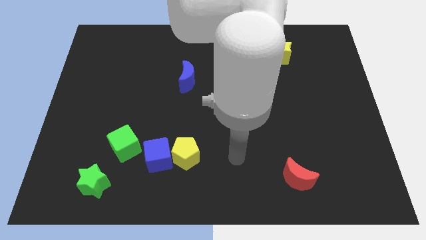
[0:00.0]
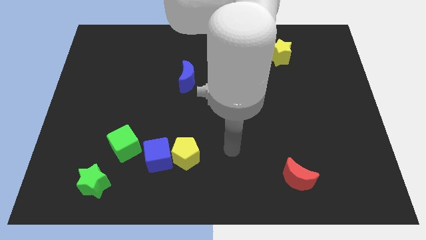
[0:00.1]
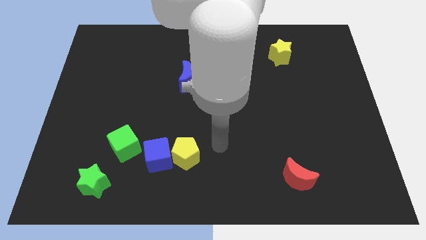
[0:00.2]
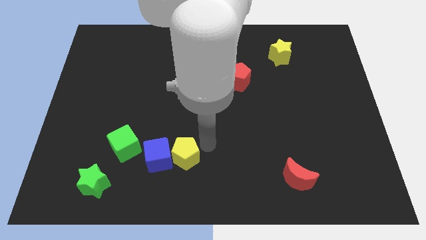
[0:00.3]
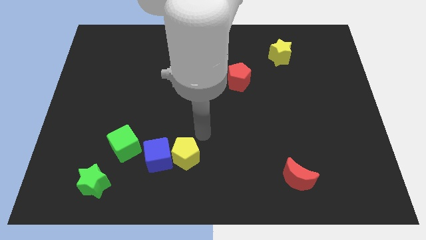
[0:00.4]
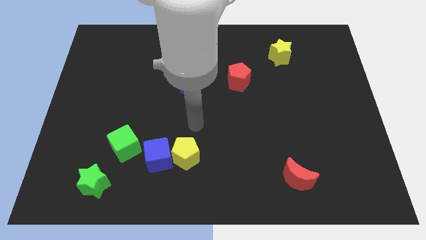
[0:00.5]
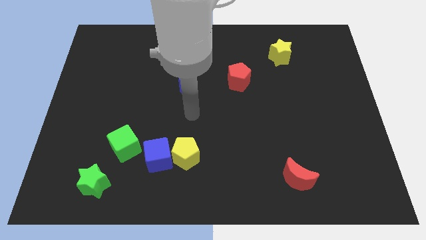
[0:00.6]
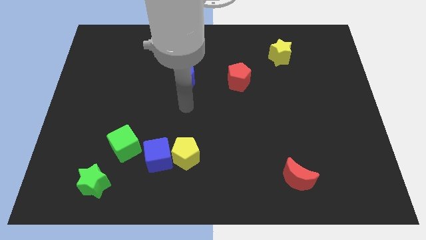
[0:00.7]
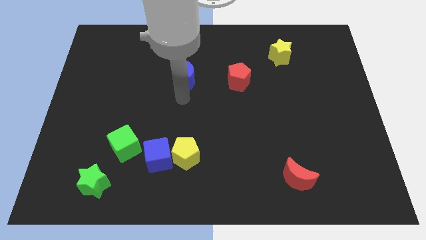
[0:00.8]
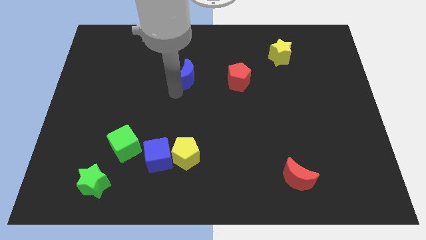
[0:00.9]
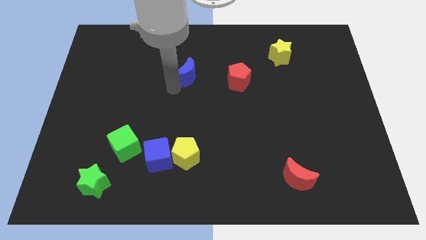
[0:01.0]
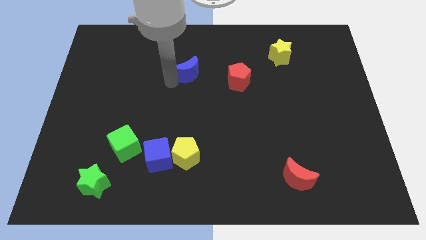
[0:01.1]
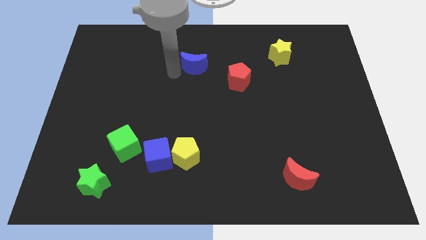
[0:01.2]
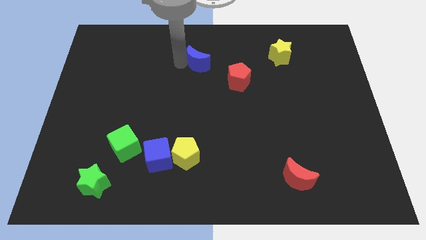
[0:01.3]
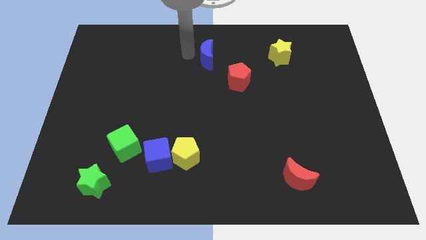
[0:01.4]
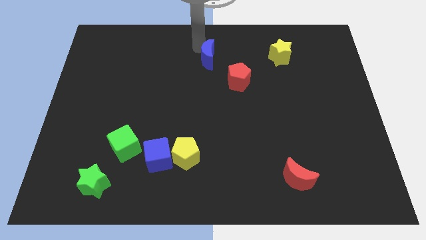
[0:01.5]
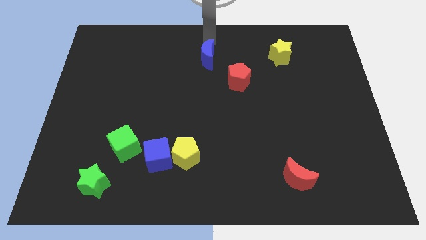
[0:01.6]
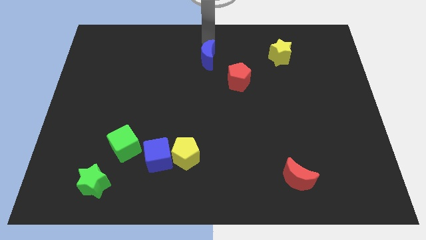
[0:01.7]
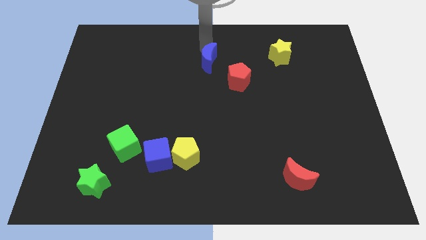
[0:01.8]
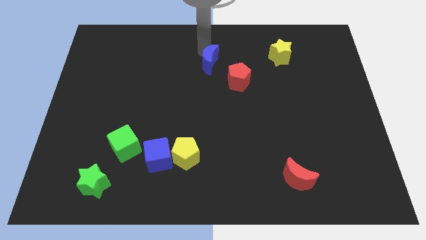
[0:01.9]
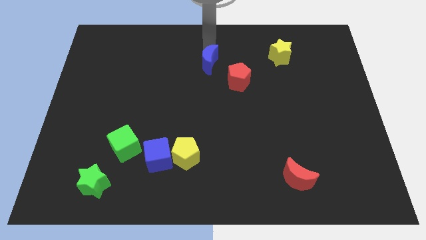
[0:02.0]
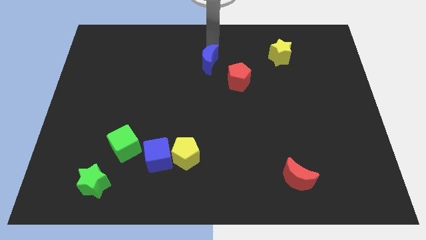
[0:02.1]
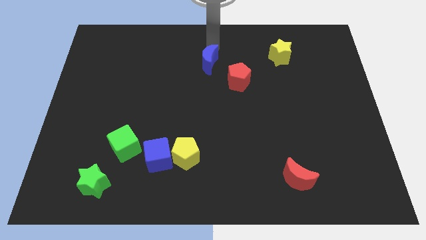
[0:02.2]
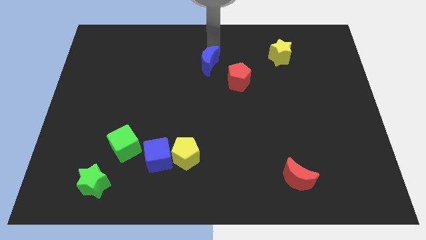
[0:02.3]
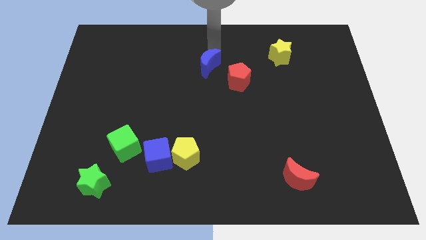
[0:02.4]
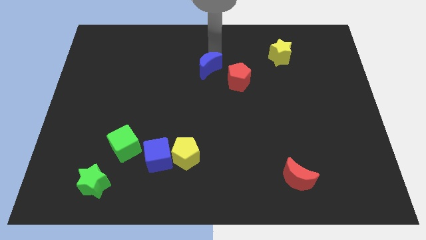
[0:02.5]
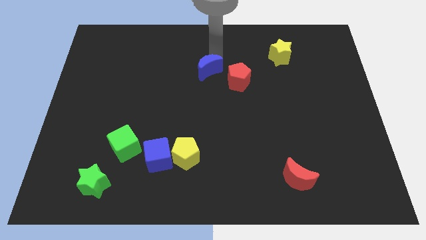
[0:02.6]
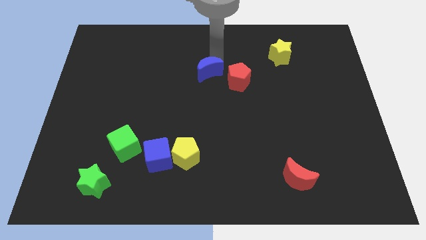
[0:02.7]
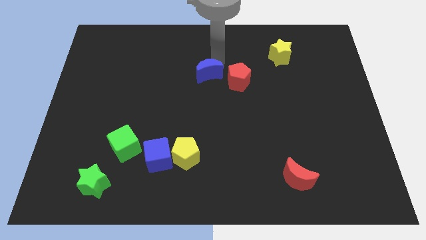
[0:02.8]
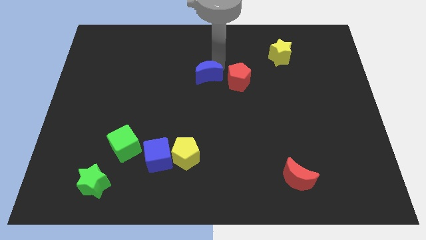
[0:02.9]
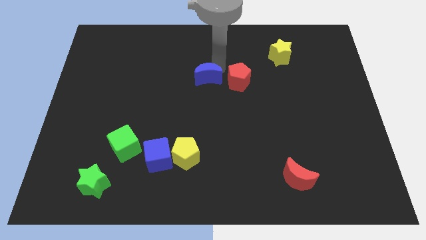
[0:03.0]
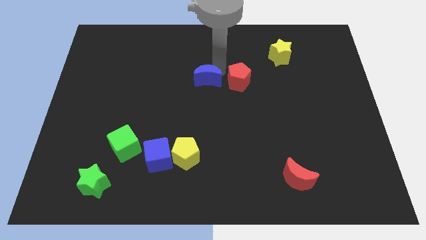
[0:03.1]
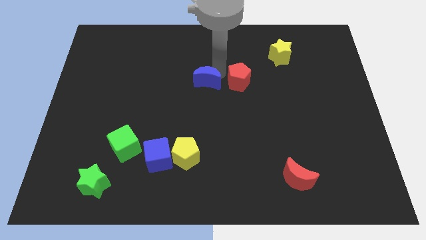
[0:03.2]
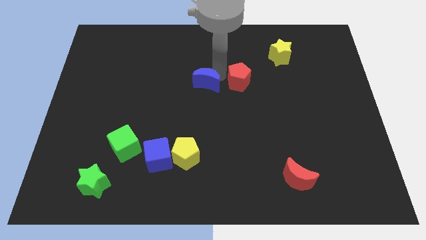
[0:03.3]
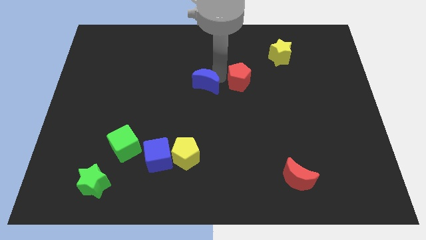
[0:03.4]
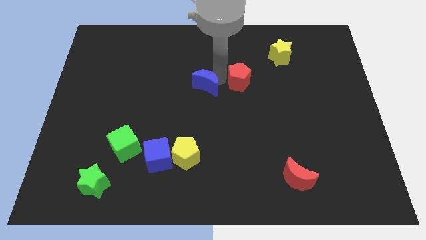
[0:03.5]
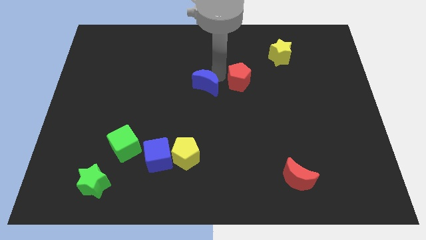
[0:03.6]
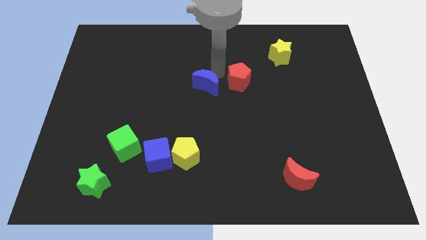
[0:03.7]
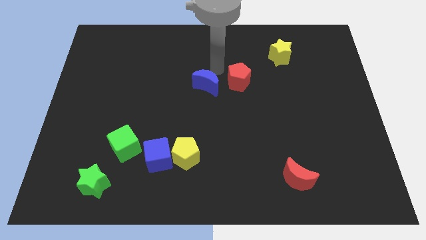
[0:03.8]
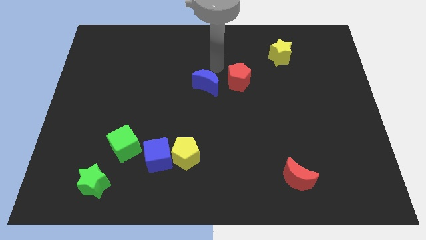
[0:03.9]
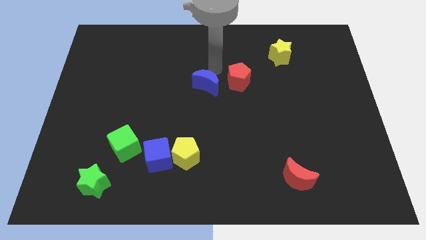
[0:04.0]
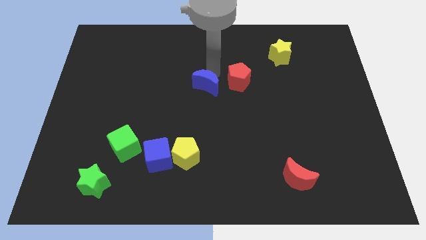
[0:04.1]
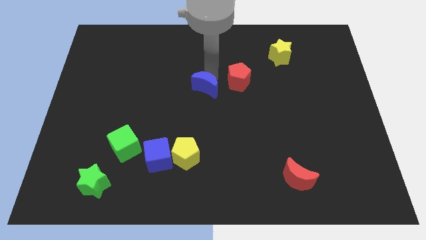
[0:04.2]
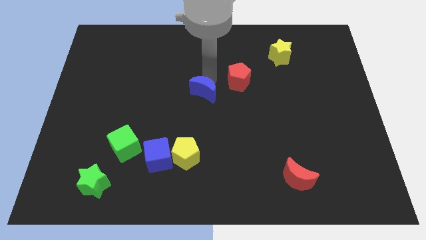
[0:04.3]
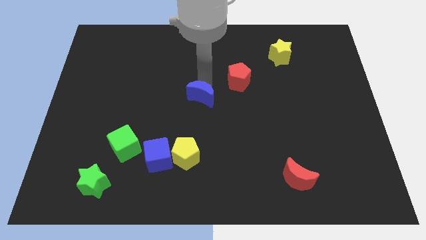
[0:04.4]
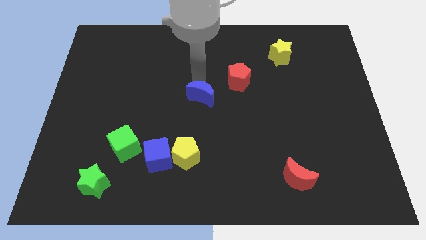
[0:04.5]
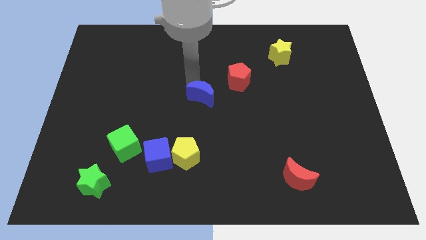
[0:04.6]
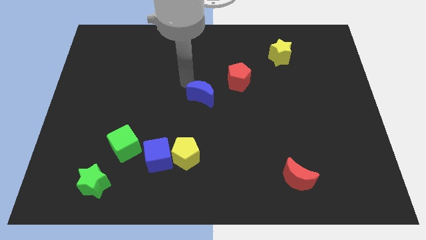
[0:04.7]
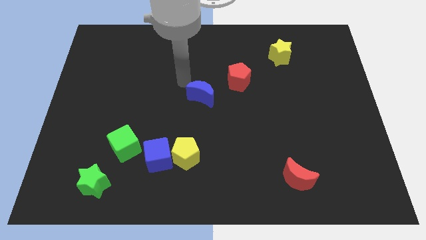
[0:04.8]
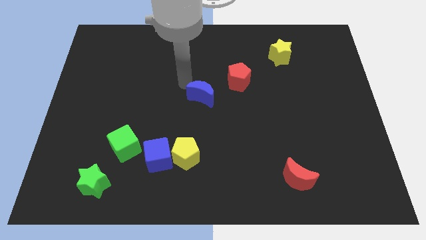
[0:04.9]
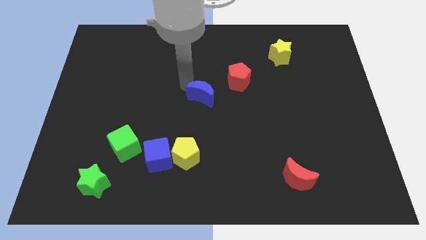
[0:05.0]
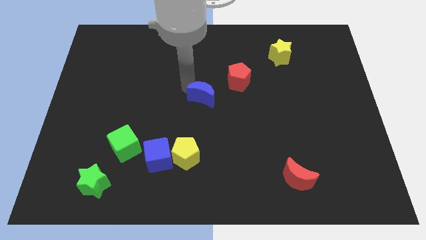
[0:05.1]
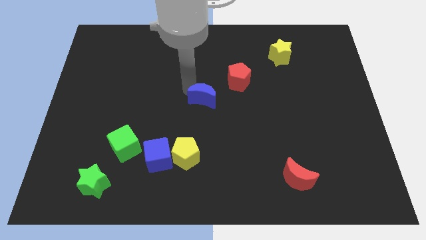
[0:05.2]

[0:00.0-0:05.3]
push the blue moon downwards and right diagonally a little bit

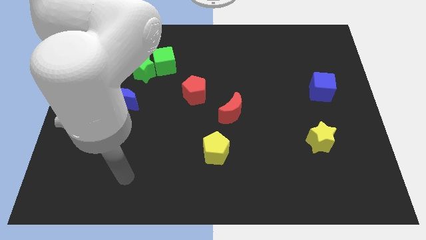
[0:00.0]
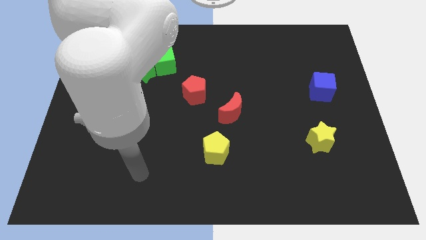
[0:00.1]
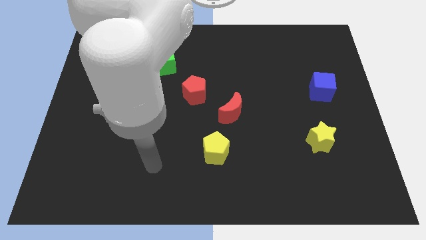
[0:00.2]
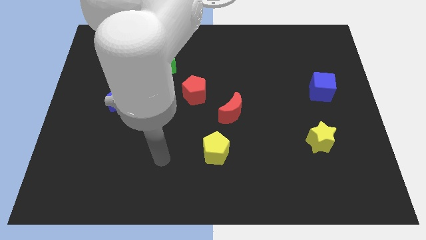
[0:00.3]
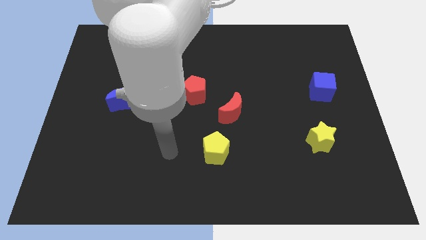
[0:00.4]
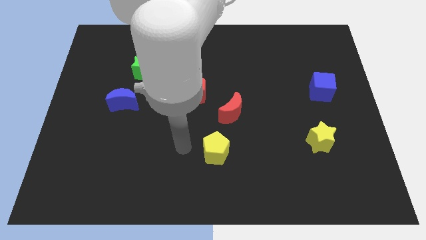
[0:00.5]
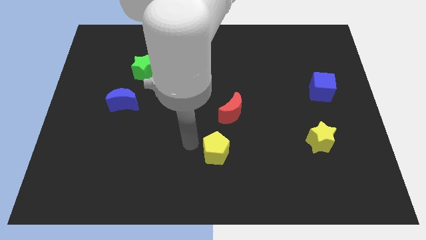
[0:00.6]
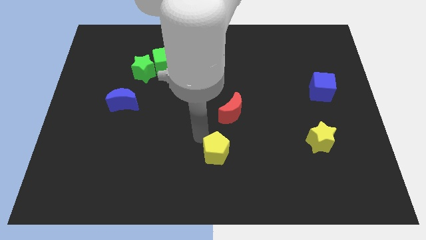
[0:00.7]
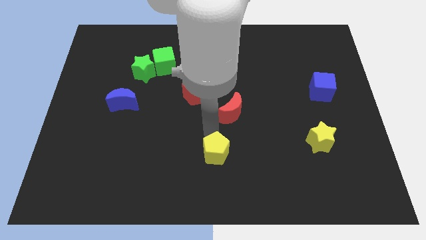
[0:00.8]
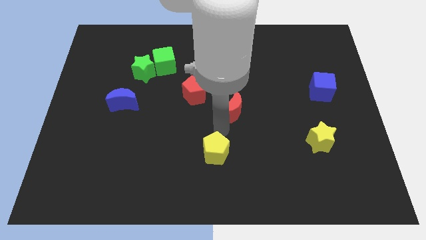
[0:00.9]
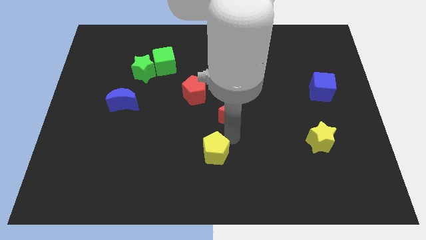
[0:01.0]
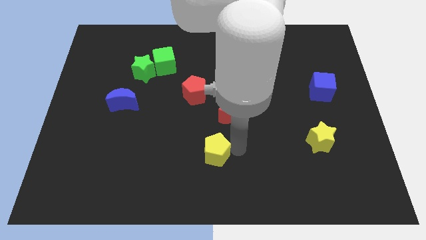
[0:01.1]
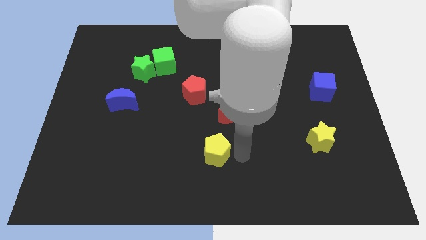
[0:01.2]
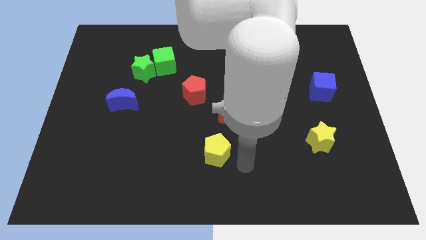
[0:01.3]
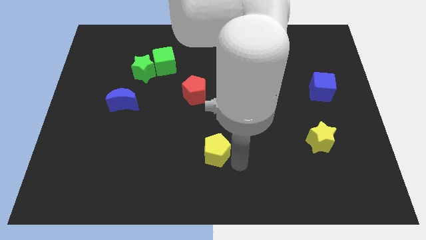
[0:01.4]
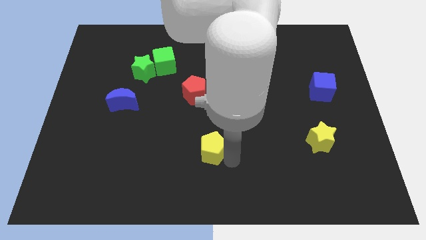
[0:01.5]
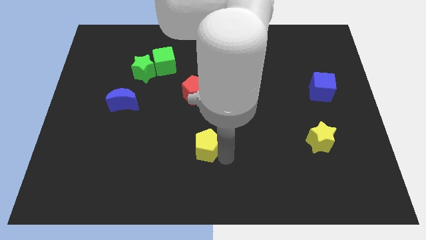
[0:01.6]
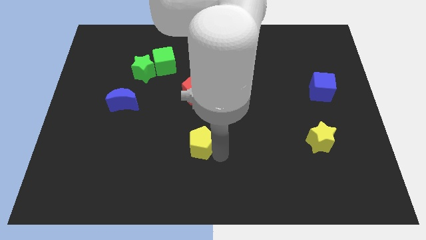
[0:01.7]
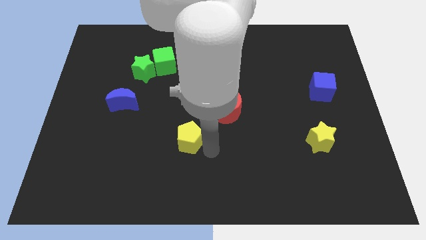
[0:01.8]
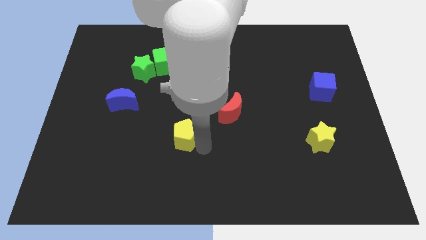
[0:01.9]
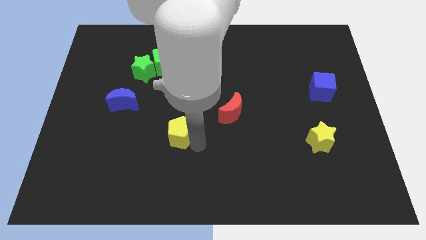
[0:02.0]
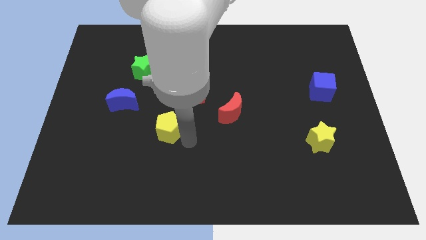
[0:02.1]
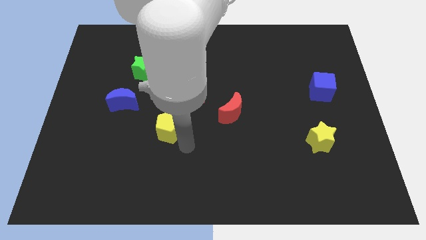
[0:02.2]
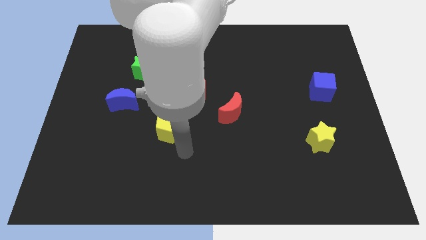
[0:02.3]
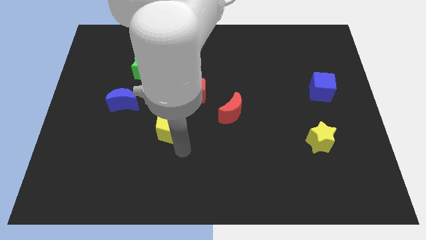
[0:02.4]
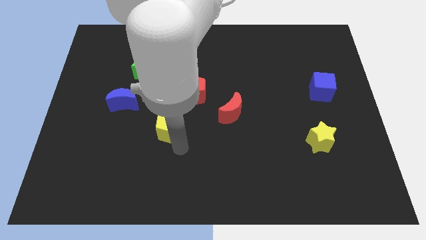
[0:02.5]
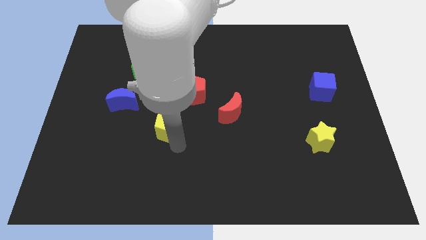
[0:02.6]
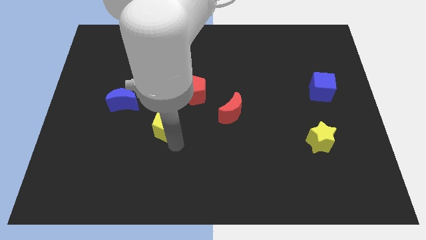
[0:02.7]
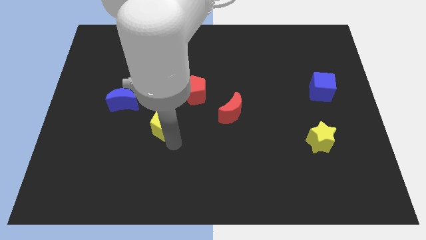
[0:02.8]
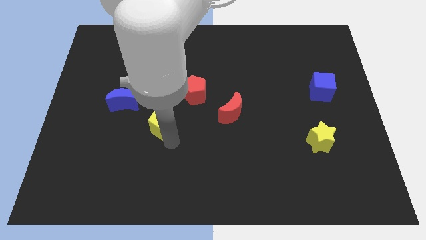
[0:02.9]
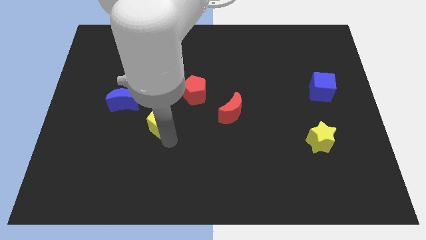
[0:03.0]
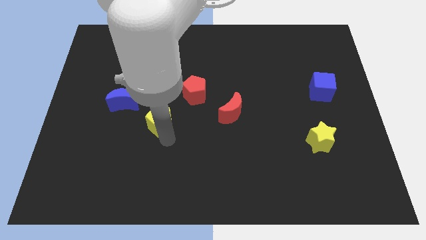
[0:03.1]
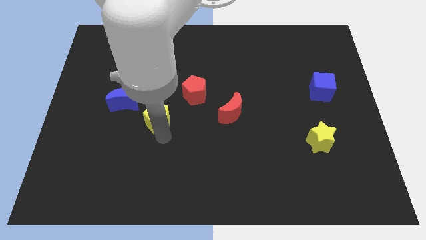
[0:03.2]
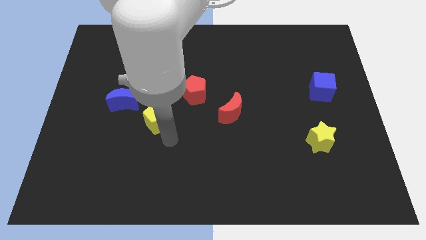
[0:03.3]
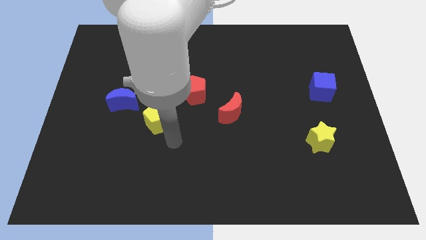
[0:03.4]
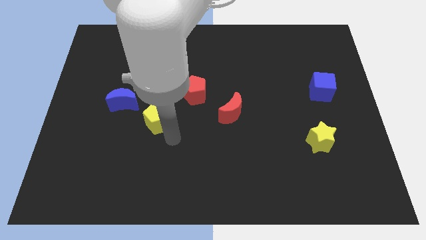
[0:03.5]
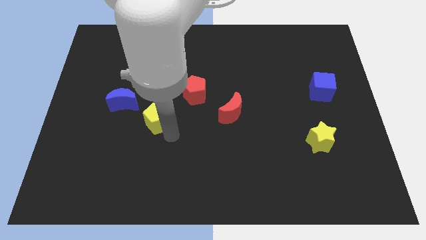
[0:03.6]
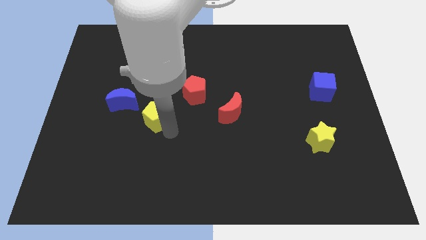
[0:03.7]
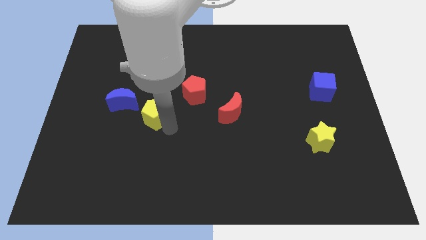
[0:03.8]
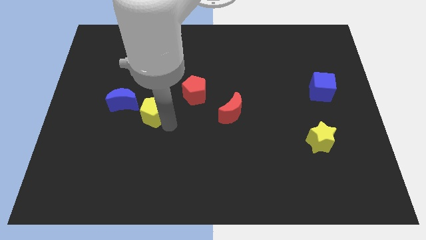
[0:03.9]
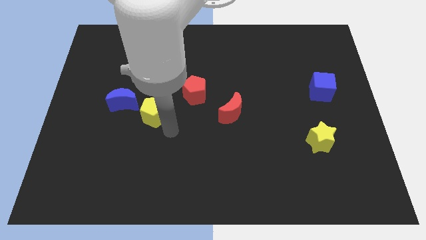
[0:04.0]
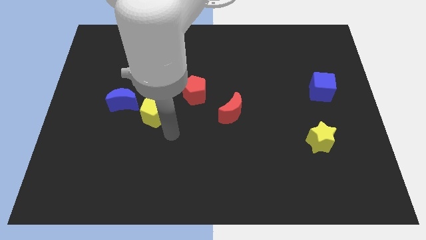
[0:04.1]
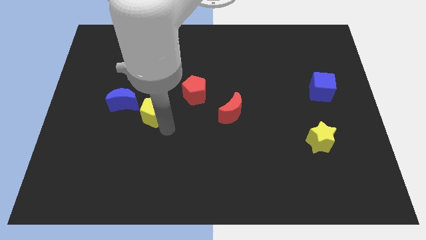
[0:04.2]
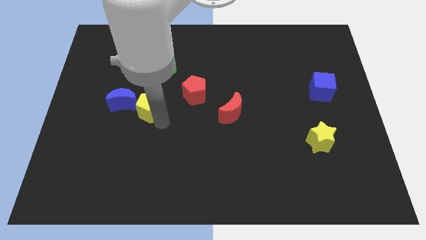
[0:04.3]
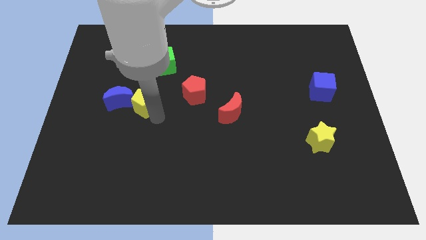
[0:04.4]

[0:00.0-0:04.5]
push the yellow pentagon up and then to the left
